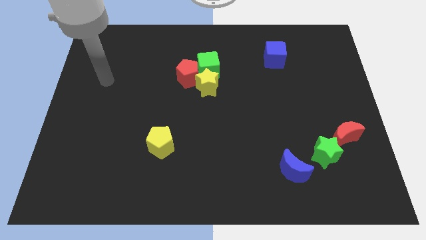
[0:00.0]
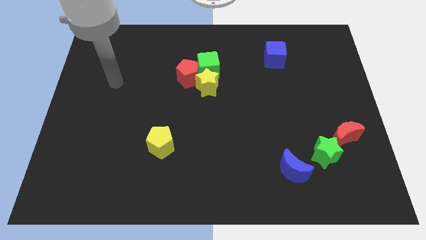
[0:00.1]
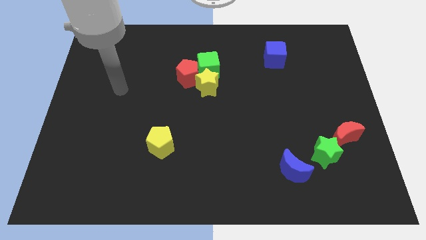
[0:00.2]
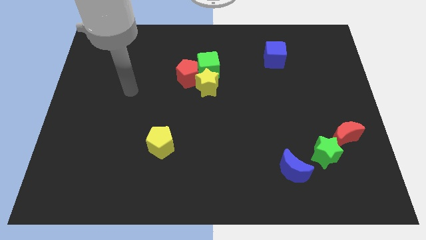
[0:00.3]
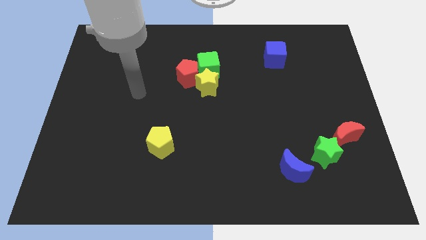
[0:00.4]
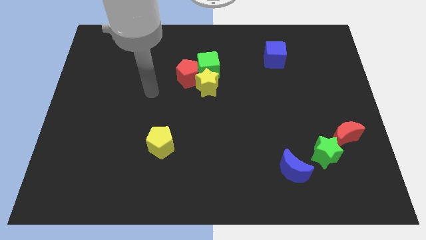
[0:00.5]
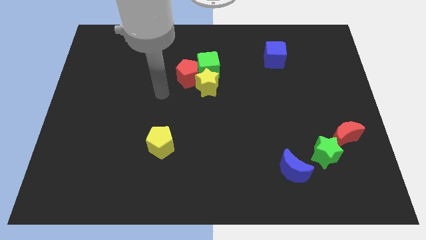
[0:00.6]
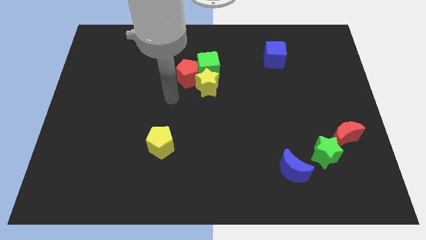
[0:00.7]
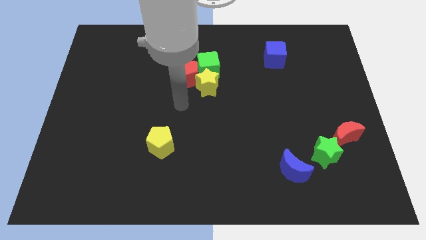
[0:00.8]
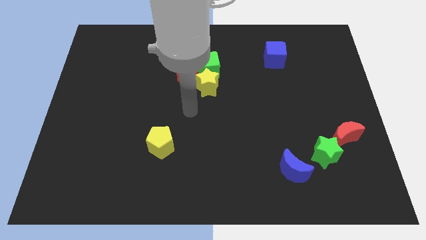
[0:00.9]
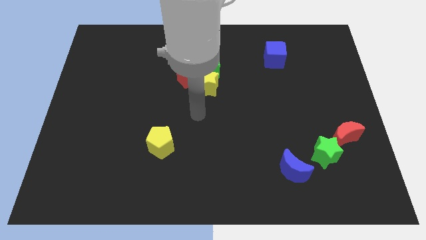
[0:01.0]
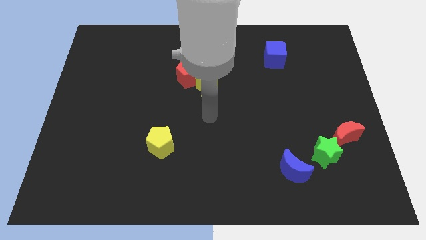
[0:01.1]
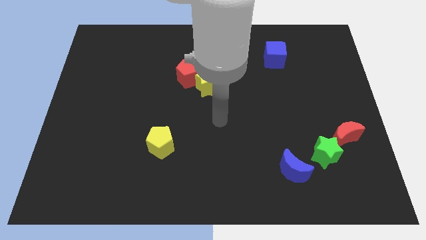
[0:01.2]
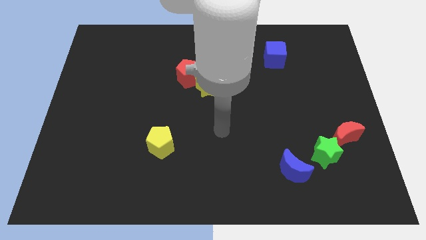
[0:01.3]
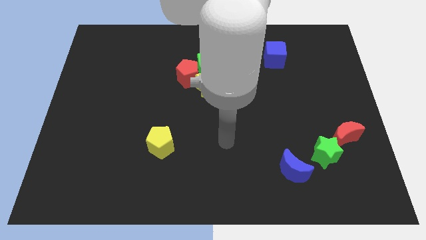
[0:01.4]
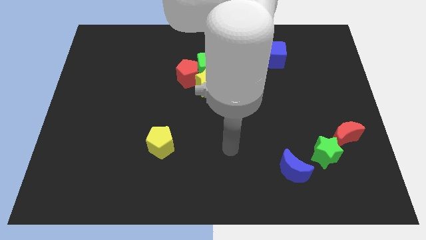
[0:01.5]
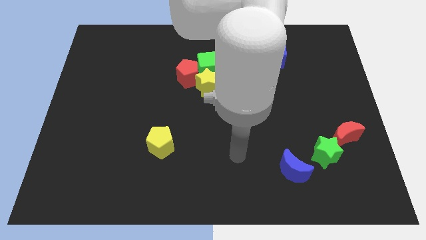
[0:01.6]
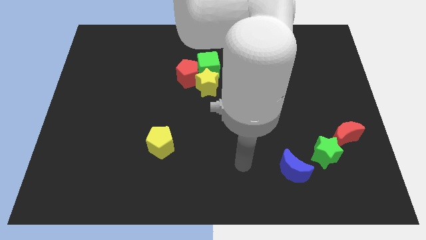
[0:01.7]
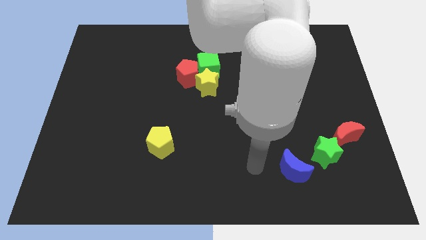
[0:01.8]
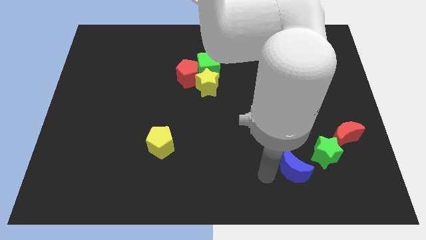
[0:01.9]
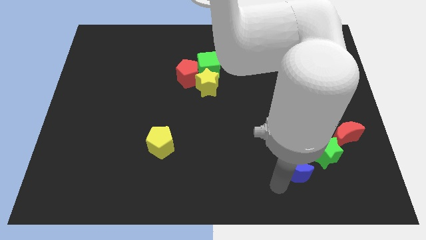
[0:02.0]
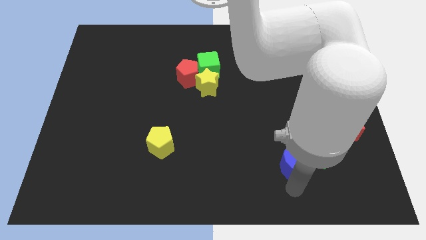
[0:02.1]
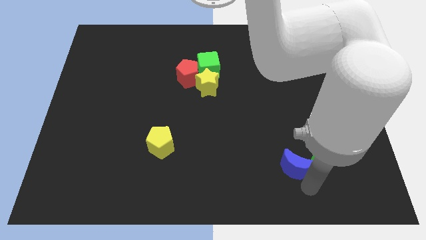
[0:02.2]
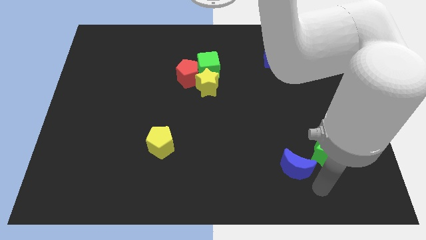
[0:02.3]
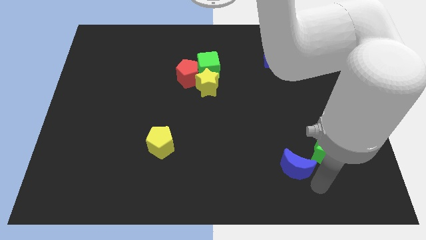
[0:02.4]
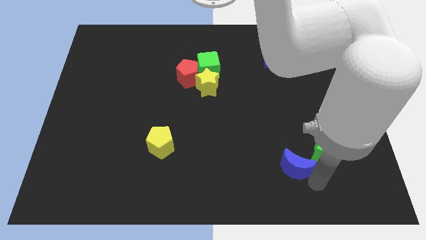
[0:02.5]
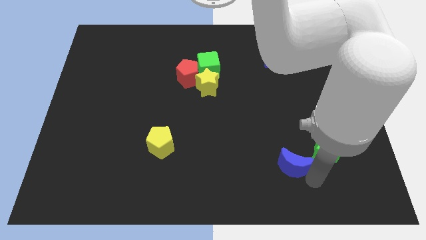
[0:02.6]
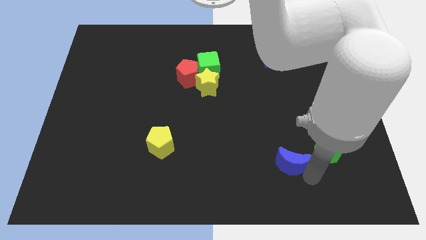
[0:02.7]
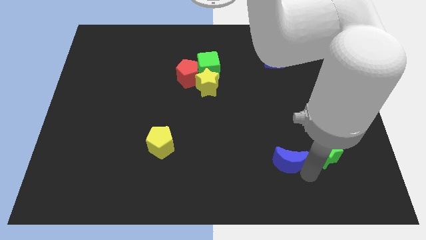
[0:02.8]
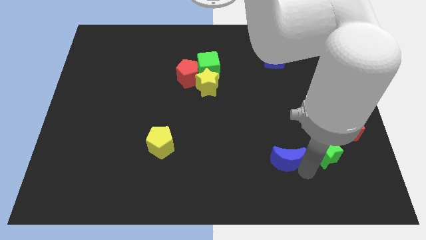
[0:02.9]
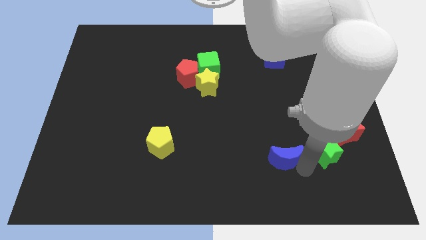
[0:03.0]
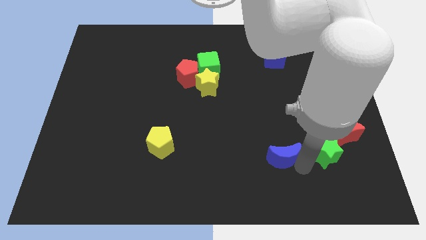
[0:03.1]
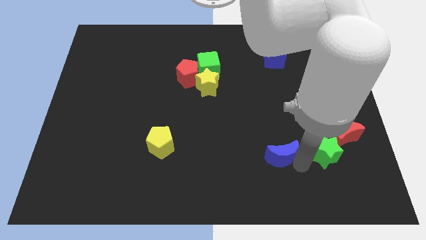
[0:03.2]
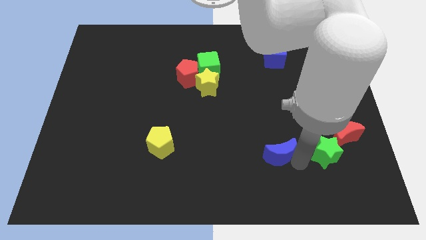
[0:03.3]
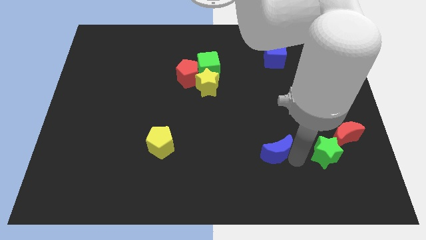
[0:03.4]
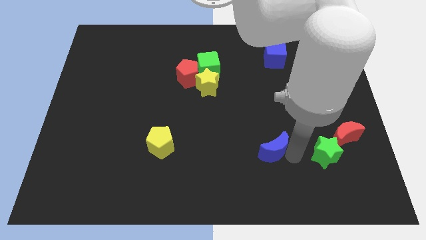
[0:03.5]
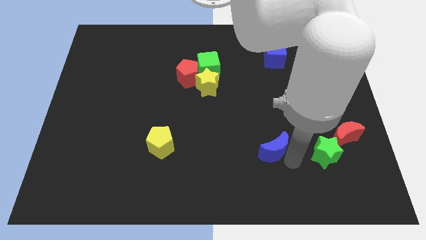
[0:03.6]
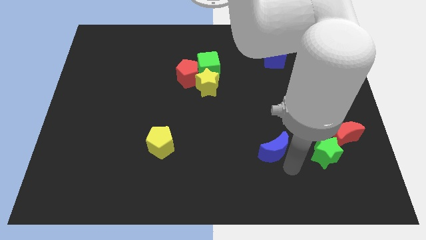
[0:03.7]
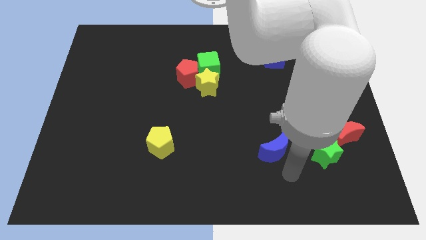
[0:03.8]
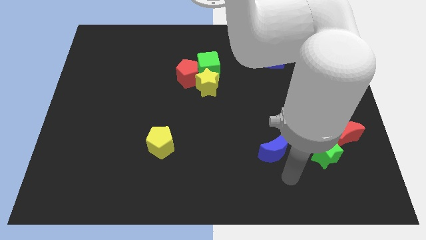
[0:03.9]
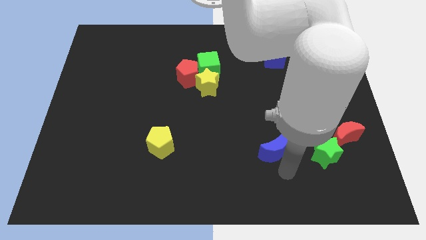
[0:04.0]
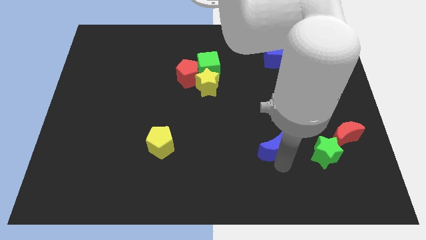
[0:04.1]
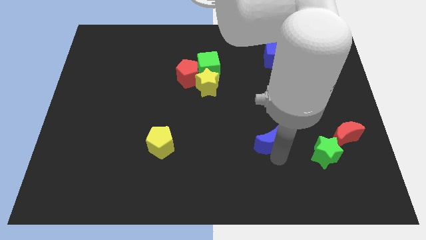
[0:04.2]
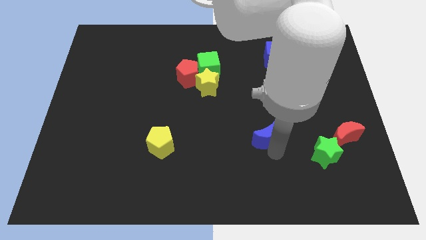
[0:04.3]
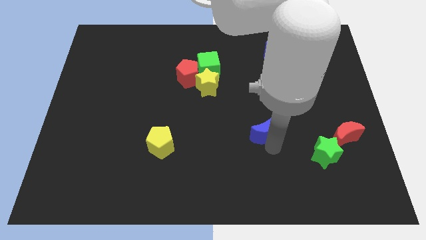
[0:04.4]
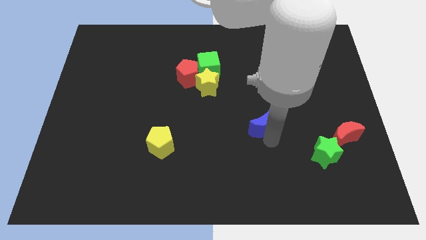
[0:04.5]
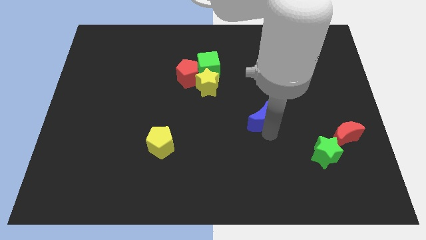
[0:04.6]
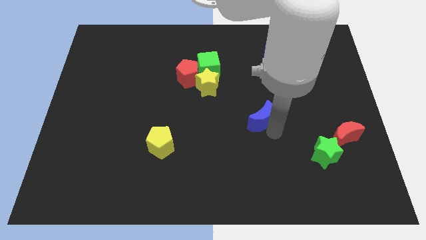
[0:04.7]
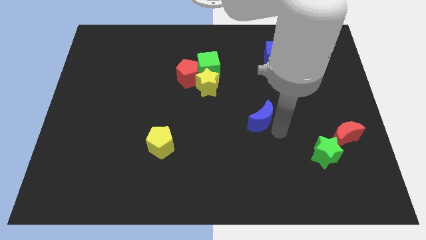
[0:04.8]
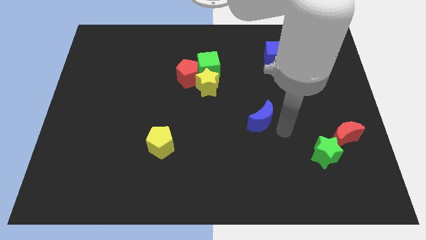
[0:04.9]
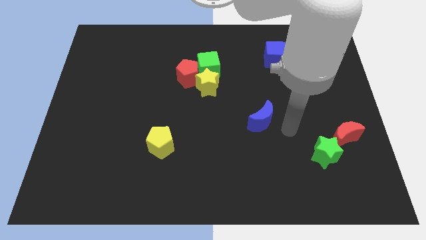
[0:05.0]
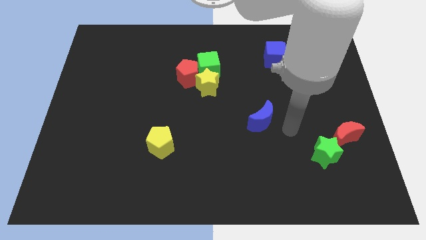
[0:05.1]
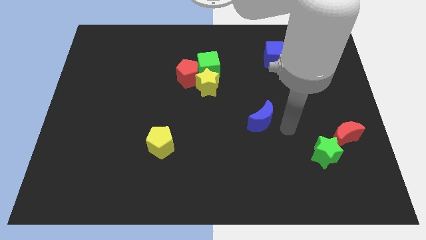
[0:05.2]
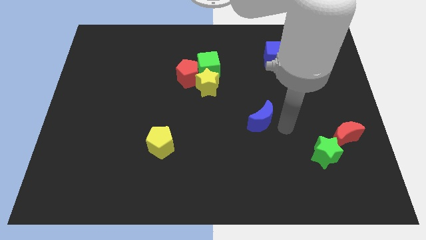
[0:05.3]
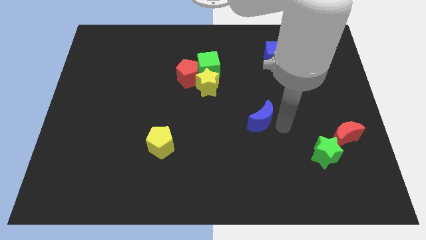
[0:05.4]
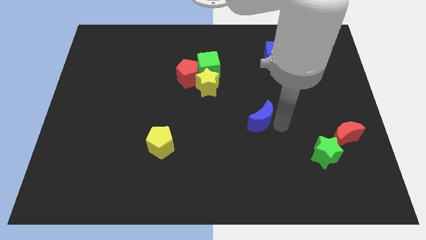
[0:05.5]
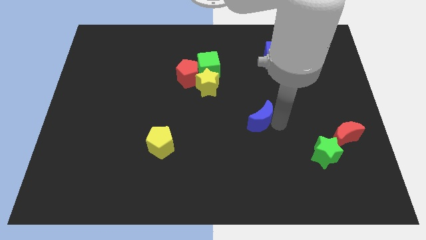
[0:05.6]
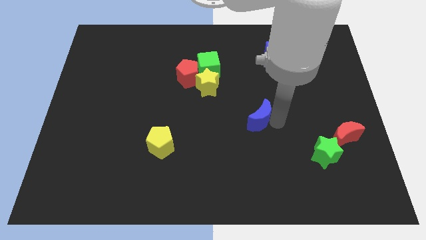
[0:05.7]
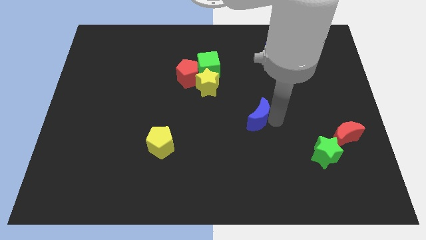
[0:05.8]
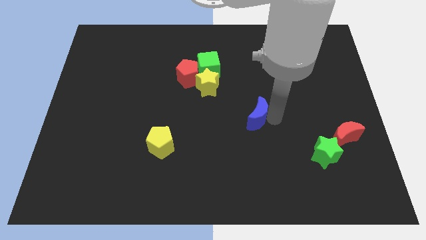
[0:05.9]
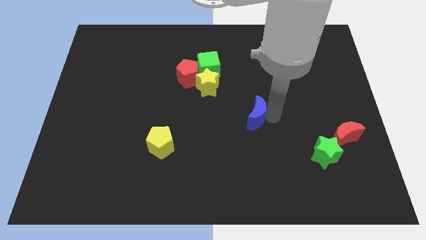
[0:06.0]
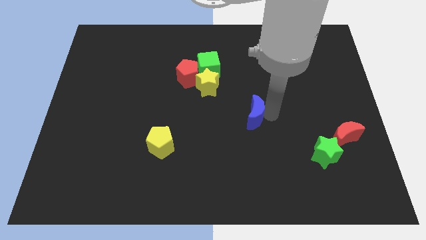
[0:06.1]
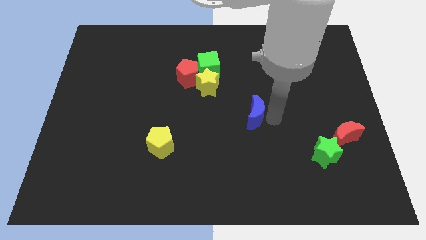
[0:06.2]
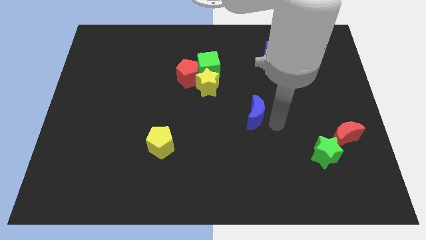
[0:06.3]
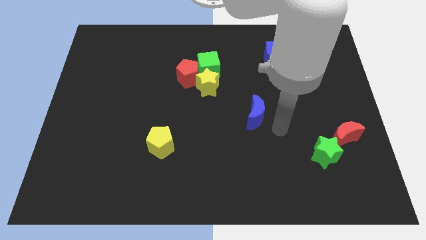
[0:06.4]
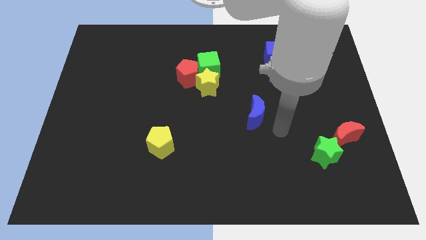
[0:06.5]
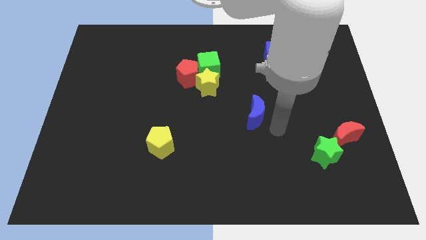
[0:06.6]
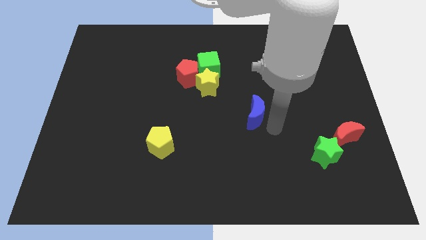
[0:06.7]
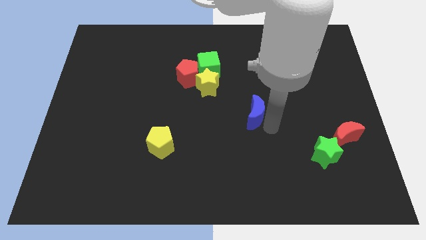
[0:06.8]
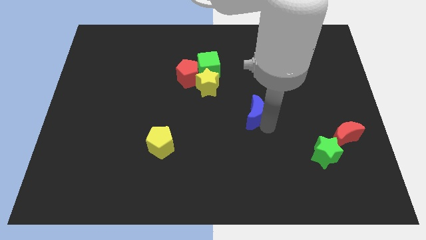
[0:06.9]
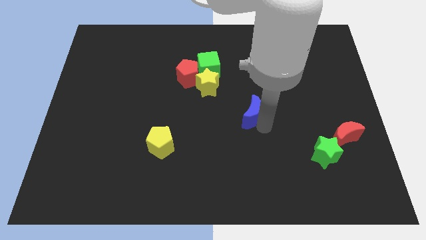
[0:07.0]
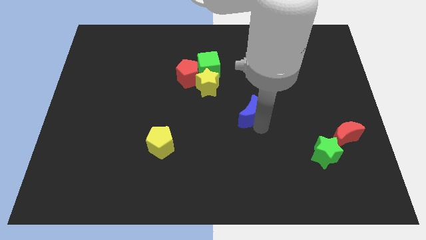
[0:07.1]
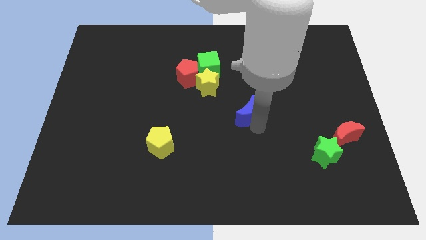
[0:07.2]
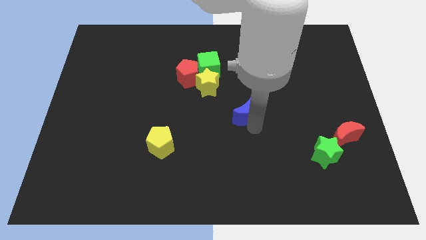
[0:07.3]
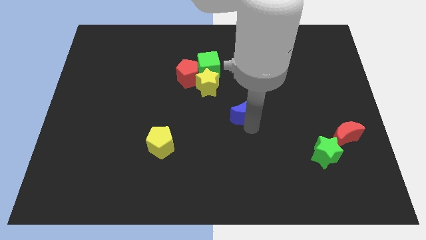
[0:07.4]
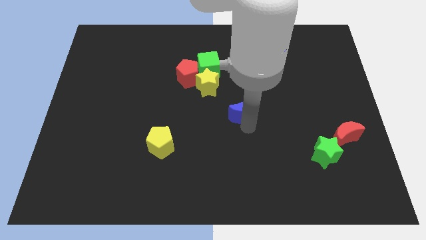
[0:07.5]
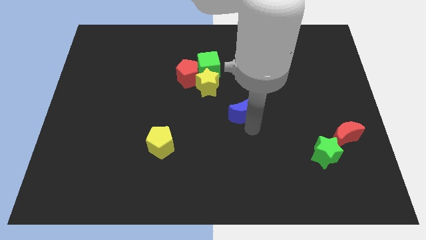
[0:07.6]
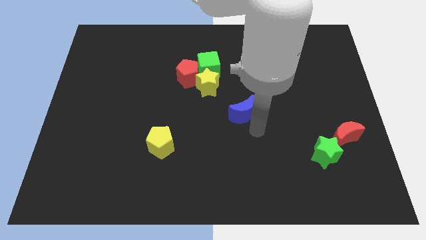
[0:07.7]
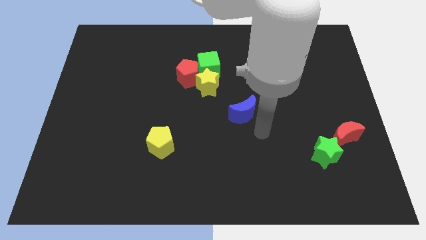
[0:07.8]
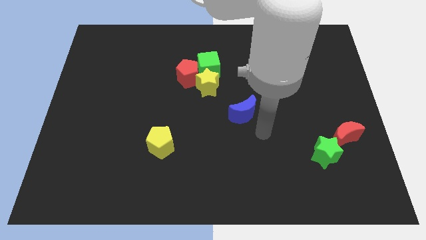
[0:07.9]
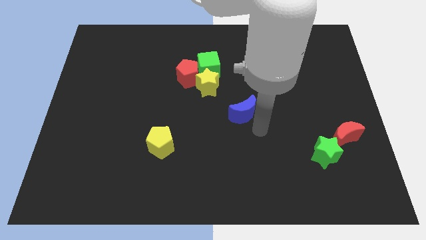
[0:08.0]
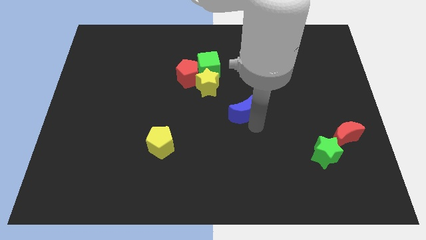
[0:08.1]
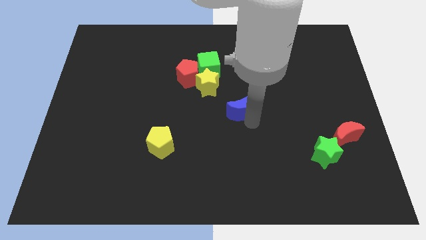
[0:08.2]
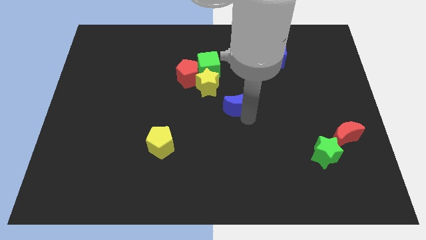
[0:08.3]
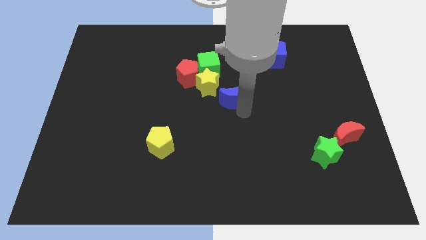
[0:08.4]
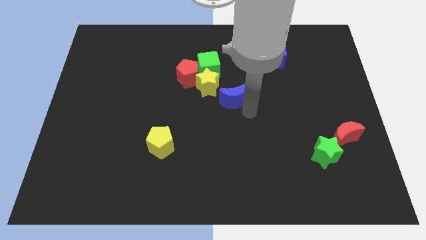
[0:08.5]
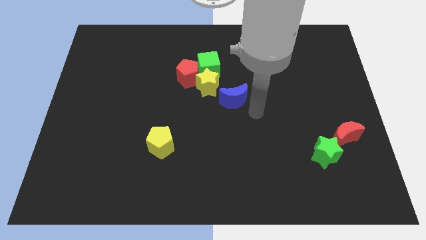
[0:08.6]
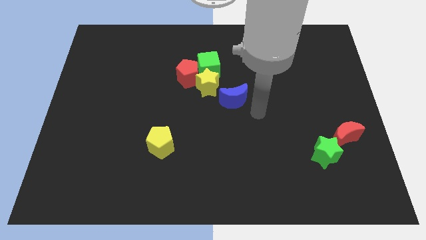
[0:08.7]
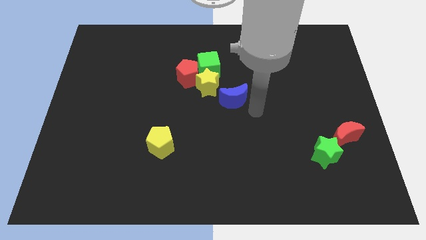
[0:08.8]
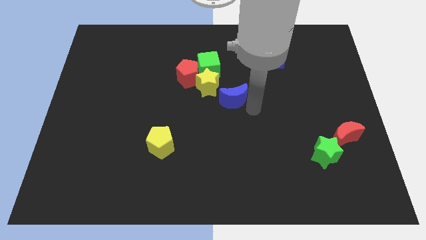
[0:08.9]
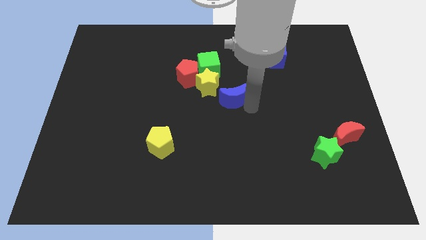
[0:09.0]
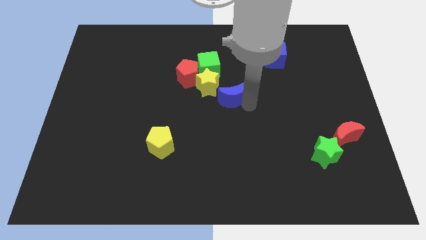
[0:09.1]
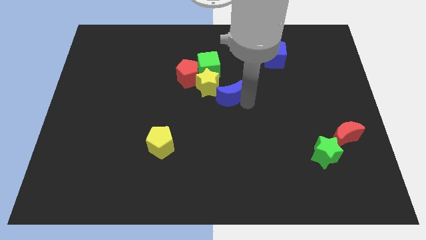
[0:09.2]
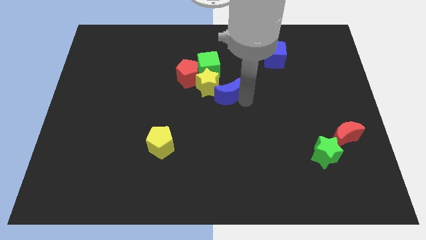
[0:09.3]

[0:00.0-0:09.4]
push the blue moon to the yellow star
